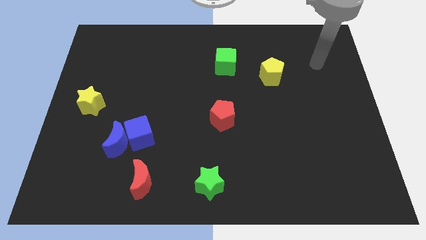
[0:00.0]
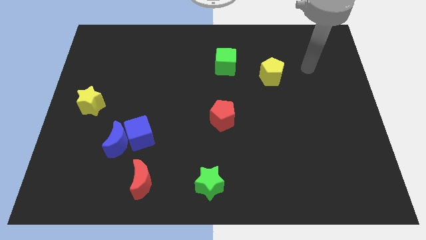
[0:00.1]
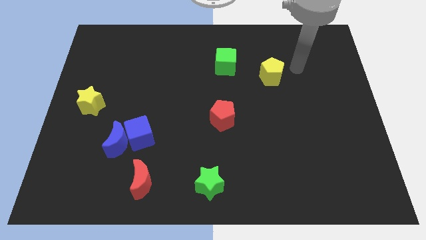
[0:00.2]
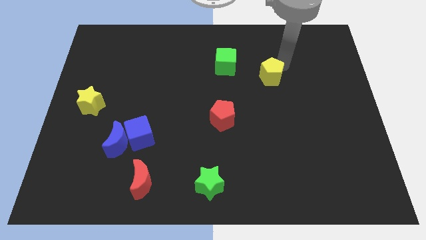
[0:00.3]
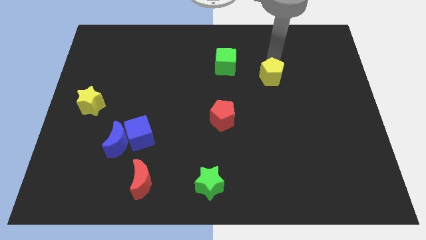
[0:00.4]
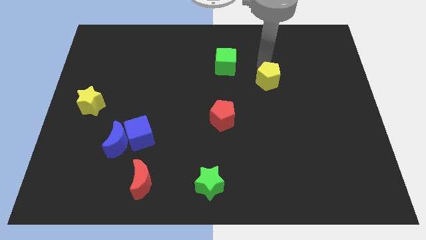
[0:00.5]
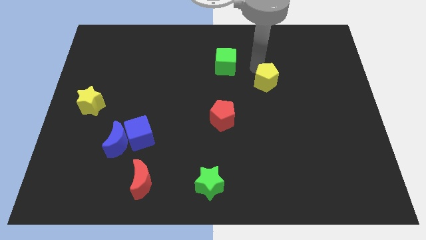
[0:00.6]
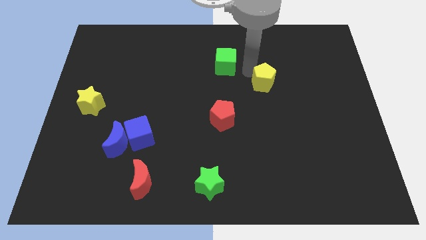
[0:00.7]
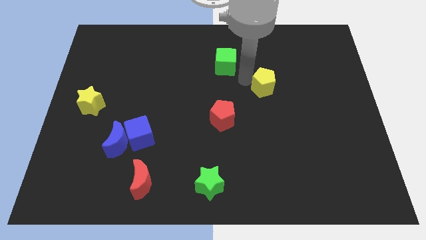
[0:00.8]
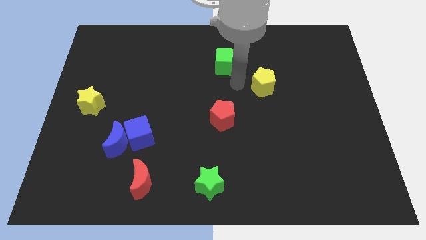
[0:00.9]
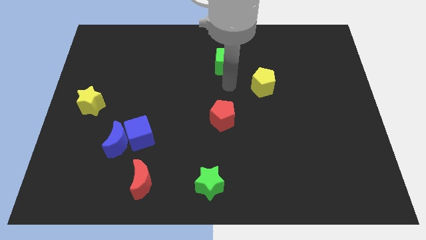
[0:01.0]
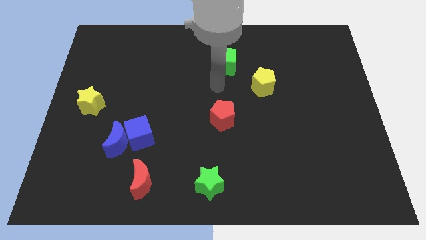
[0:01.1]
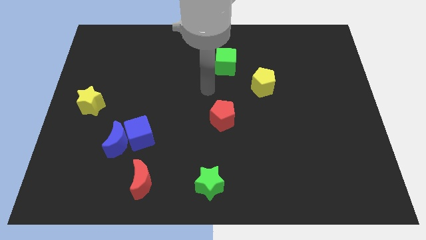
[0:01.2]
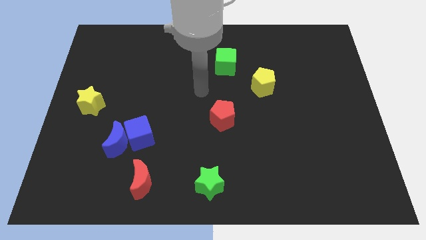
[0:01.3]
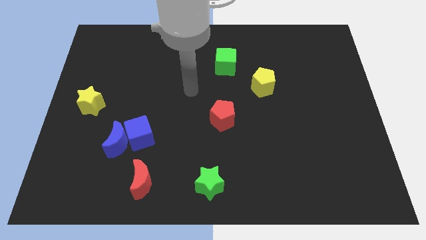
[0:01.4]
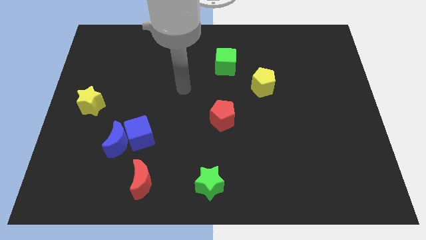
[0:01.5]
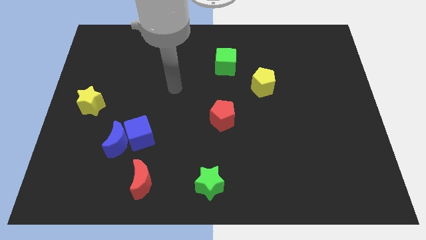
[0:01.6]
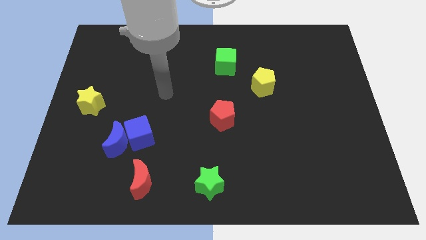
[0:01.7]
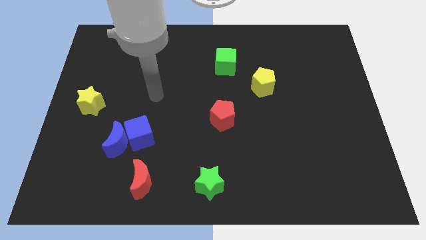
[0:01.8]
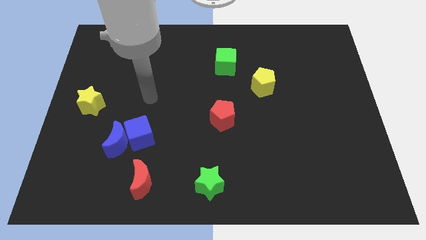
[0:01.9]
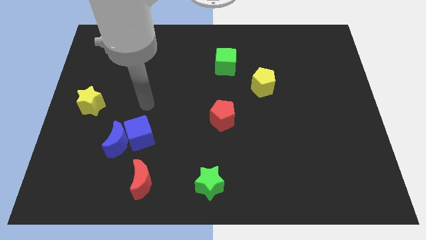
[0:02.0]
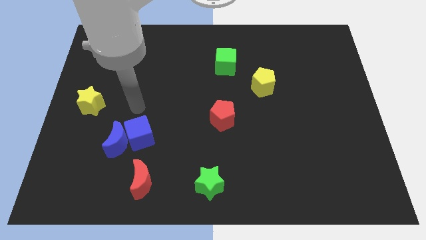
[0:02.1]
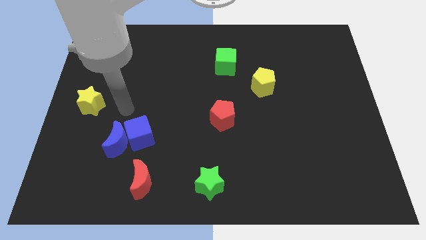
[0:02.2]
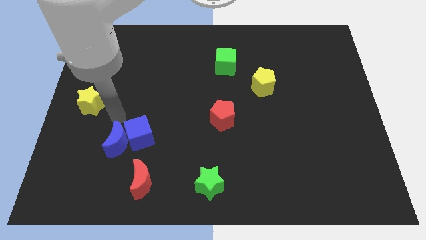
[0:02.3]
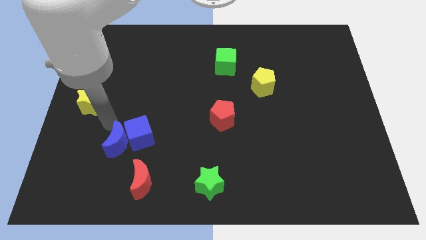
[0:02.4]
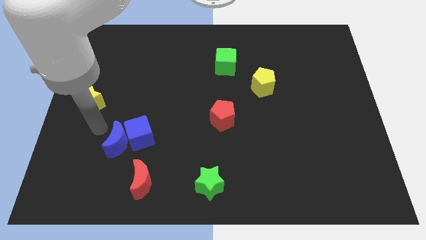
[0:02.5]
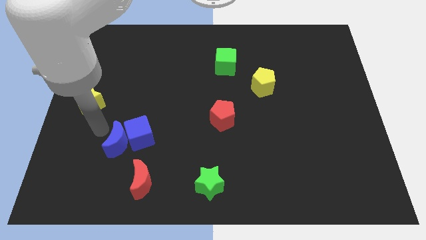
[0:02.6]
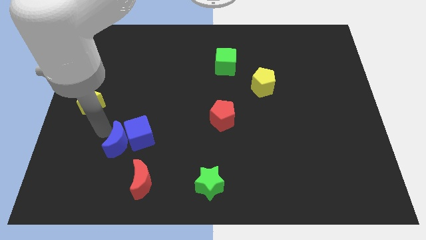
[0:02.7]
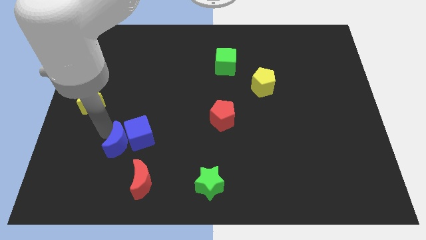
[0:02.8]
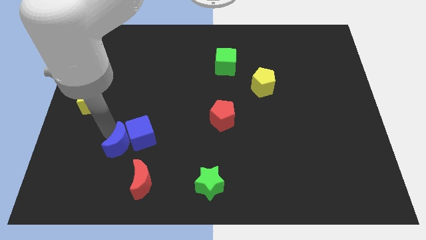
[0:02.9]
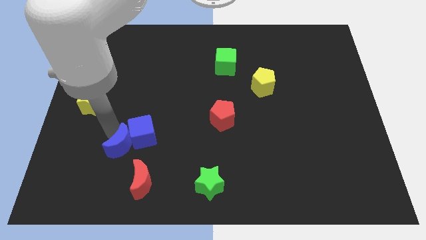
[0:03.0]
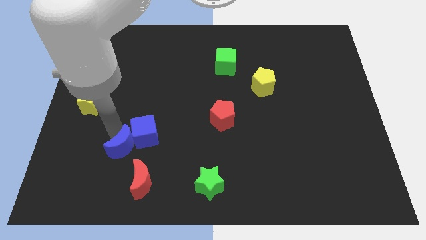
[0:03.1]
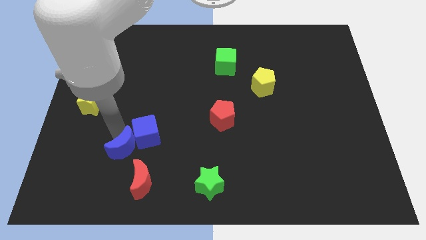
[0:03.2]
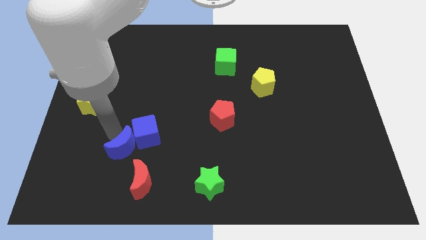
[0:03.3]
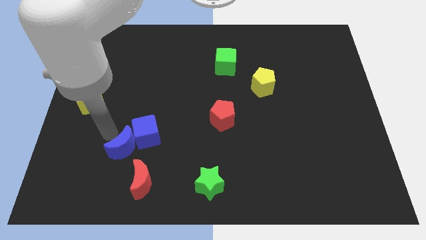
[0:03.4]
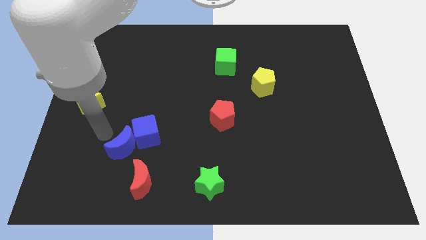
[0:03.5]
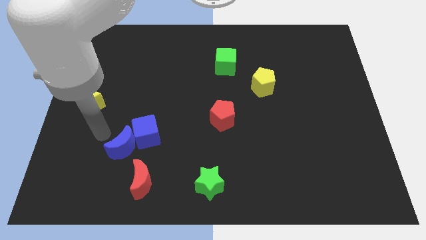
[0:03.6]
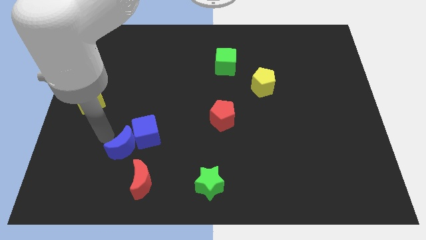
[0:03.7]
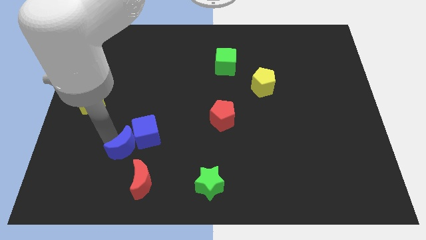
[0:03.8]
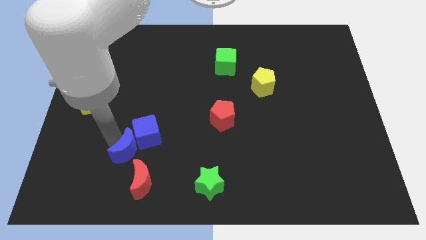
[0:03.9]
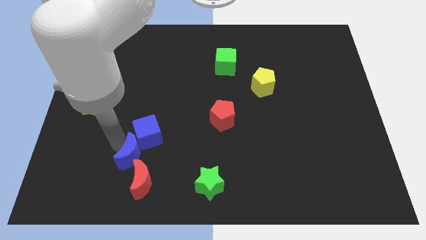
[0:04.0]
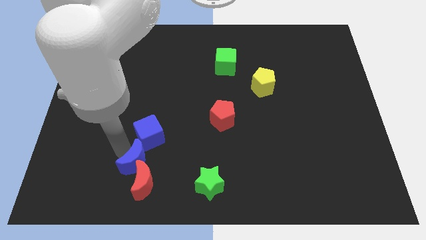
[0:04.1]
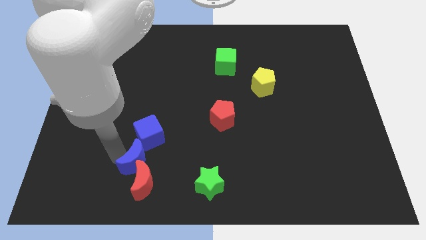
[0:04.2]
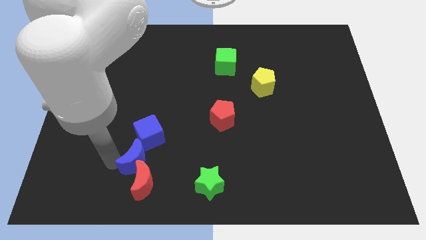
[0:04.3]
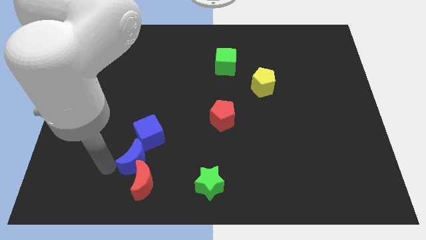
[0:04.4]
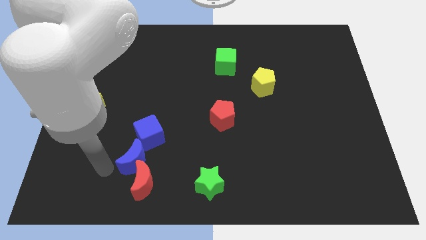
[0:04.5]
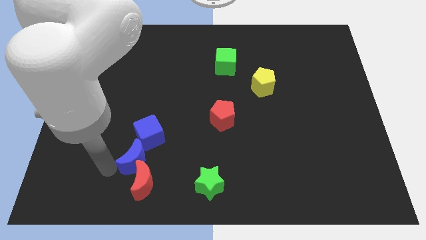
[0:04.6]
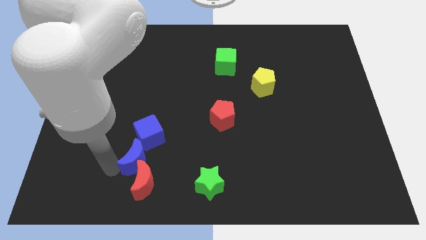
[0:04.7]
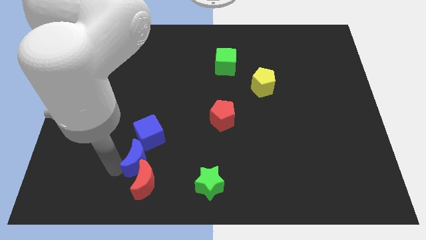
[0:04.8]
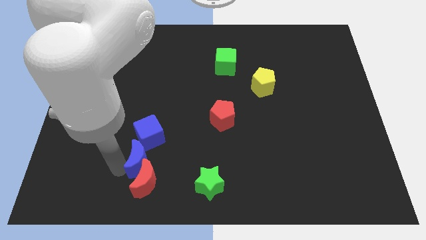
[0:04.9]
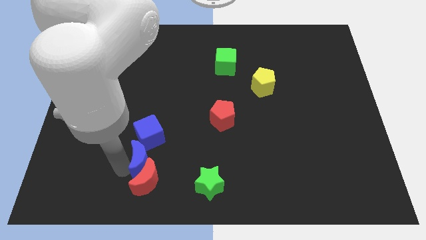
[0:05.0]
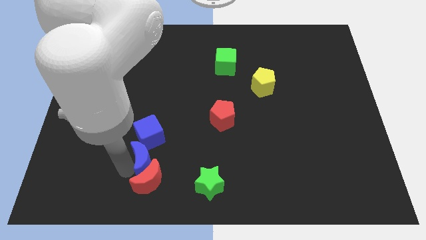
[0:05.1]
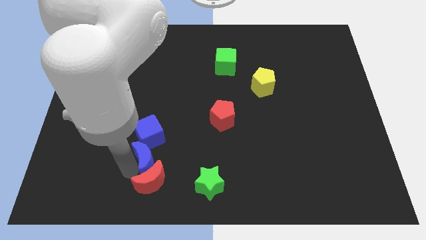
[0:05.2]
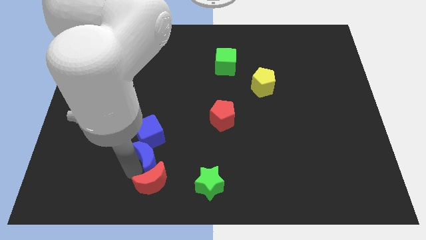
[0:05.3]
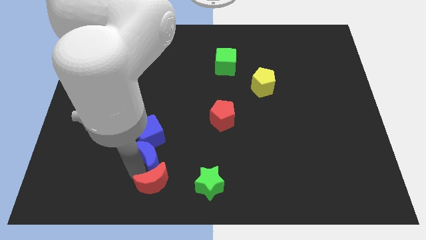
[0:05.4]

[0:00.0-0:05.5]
push the blue moon right a little

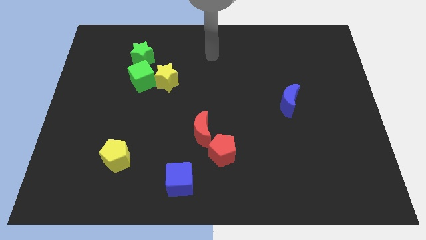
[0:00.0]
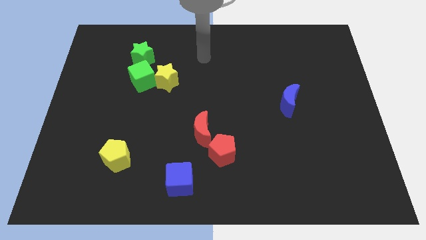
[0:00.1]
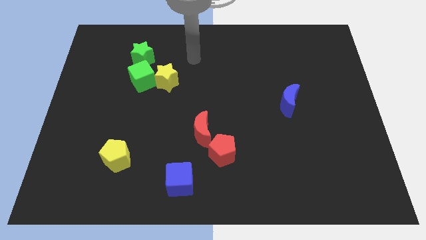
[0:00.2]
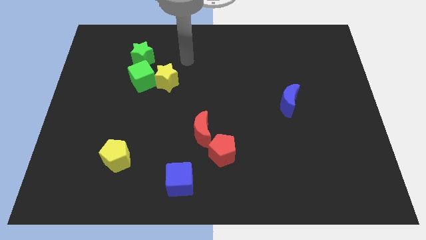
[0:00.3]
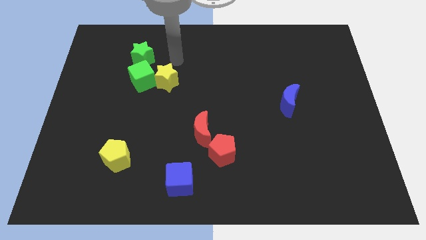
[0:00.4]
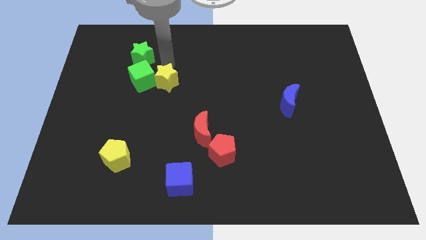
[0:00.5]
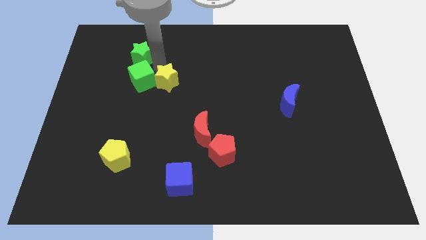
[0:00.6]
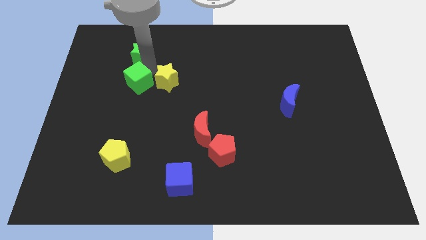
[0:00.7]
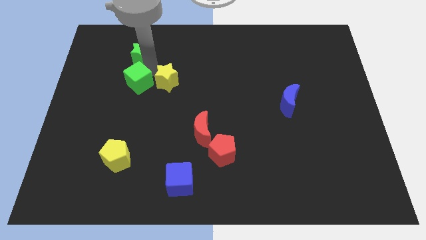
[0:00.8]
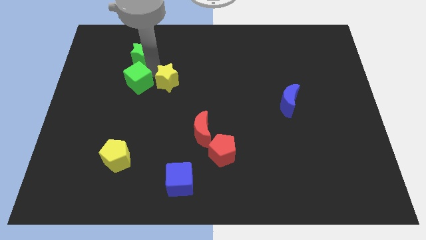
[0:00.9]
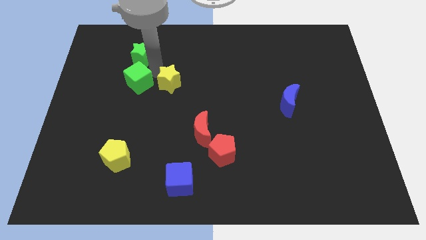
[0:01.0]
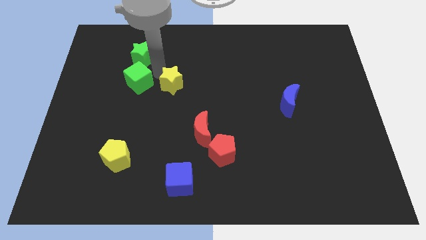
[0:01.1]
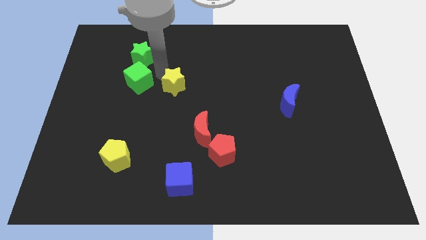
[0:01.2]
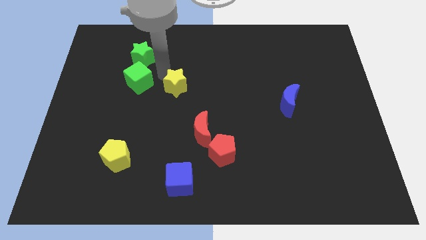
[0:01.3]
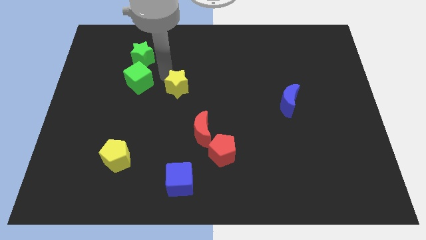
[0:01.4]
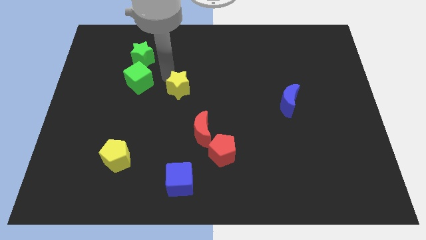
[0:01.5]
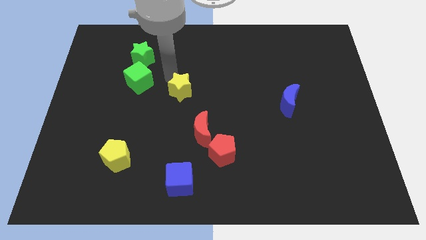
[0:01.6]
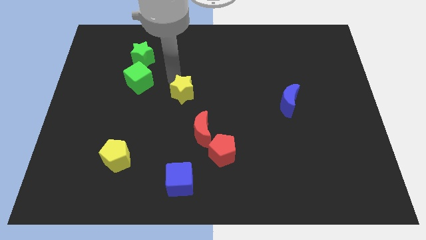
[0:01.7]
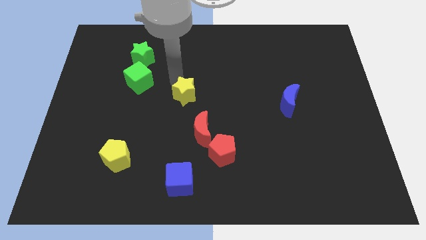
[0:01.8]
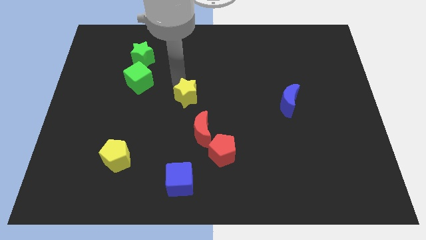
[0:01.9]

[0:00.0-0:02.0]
slightly move the yellow star diagonally downwards and right

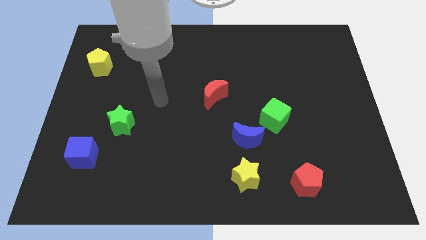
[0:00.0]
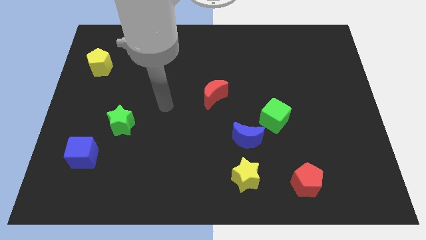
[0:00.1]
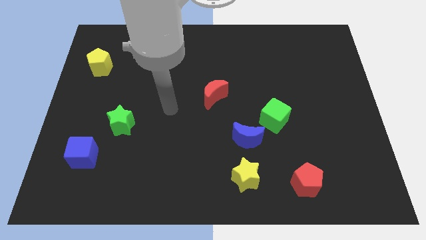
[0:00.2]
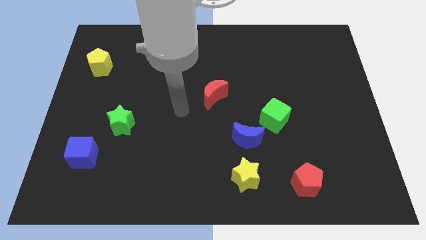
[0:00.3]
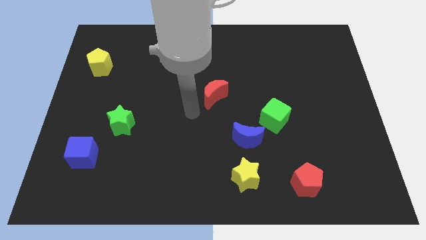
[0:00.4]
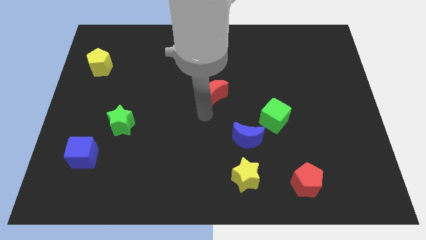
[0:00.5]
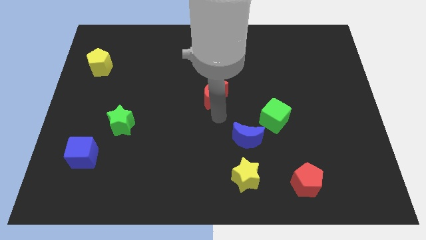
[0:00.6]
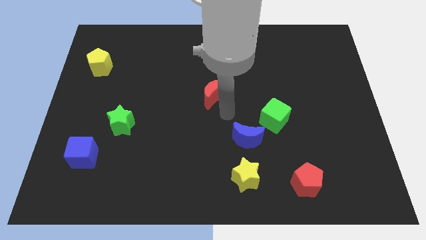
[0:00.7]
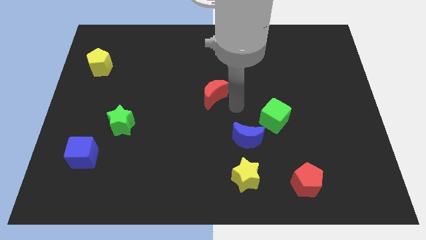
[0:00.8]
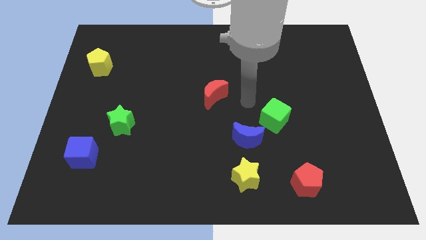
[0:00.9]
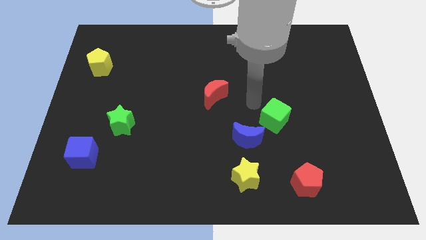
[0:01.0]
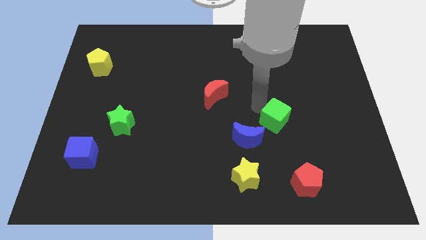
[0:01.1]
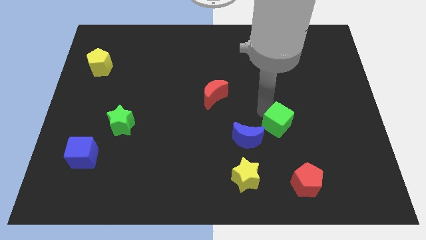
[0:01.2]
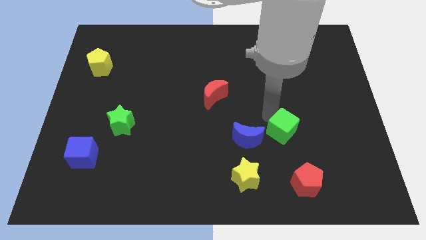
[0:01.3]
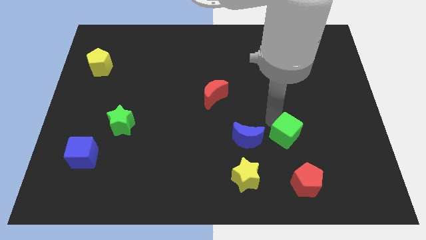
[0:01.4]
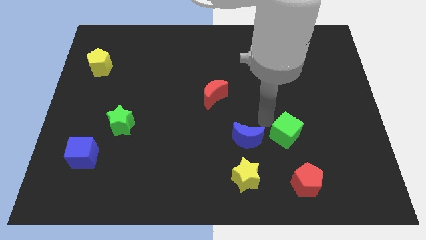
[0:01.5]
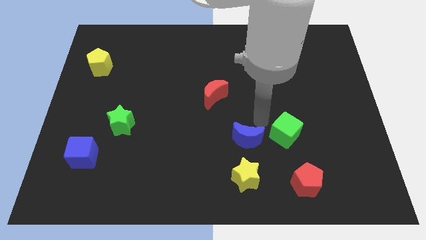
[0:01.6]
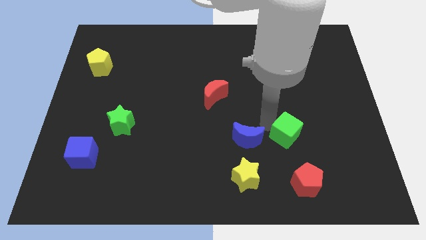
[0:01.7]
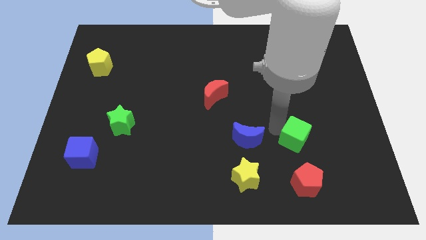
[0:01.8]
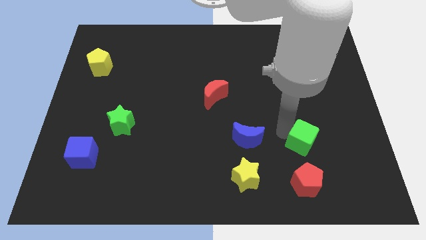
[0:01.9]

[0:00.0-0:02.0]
slightly push the green cube downwards and to the right
